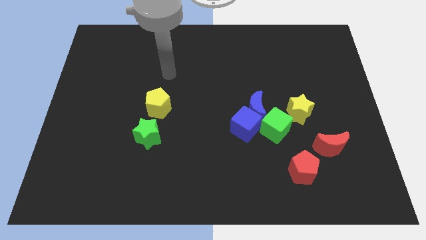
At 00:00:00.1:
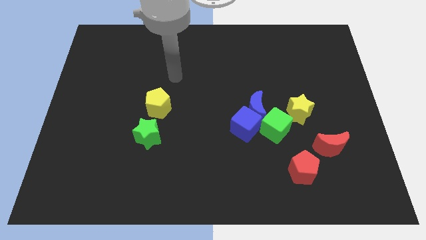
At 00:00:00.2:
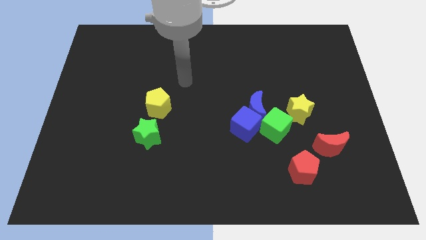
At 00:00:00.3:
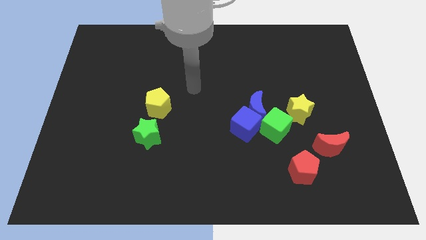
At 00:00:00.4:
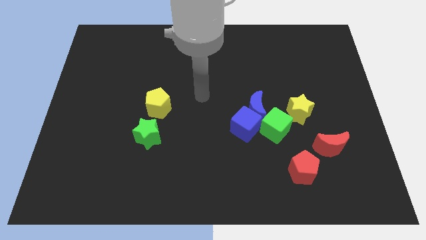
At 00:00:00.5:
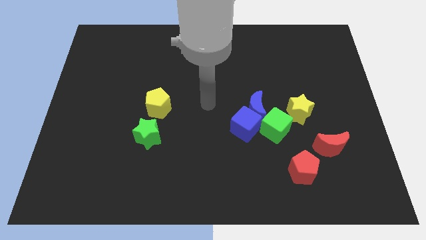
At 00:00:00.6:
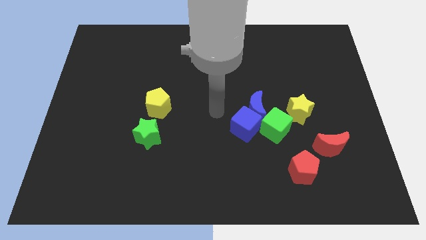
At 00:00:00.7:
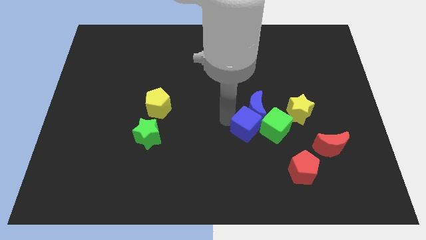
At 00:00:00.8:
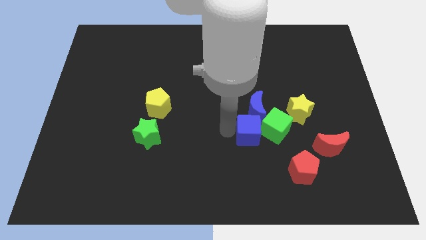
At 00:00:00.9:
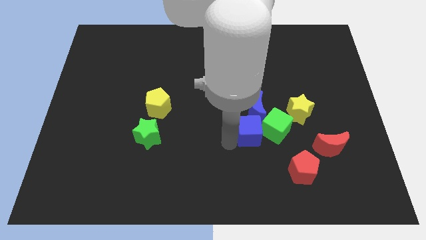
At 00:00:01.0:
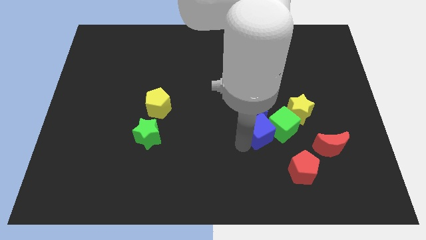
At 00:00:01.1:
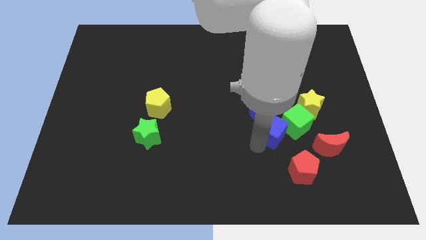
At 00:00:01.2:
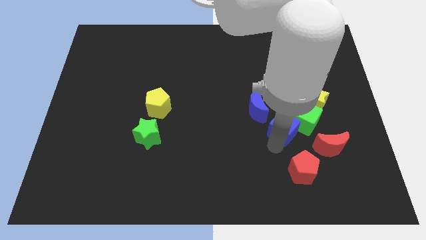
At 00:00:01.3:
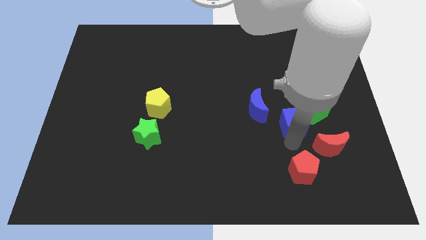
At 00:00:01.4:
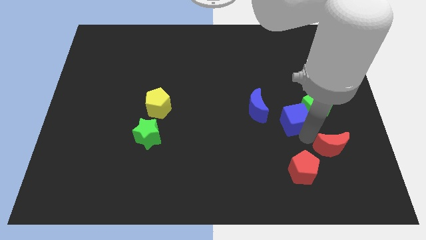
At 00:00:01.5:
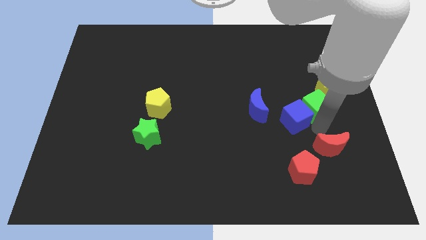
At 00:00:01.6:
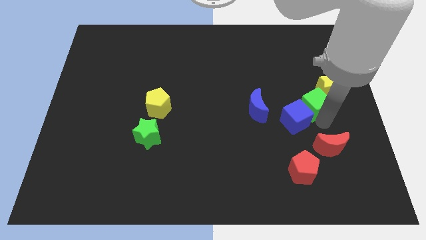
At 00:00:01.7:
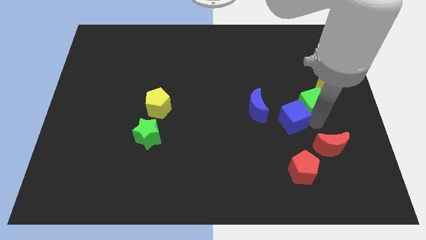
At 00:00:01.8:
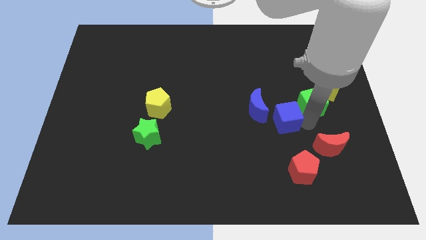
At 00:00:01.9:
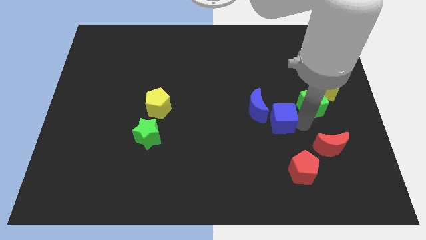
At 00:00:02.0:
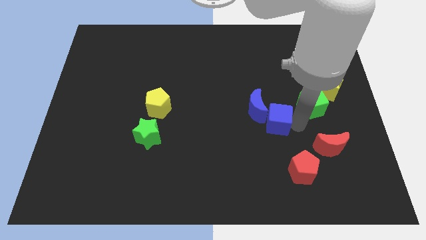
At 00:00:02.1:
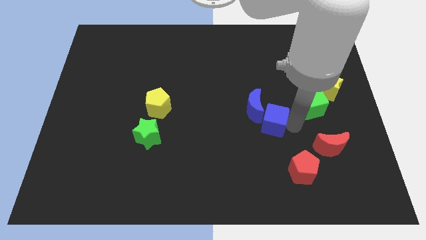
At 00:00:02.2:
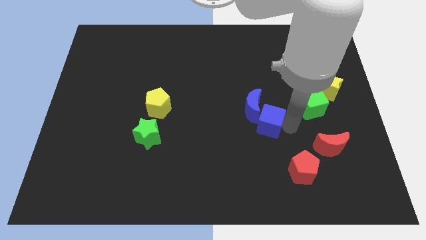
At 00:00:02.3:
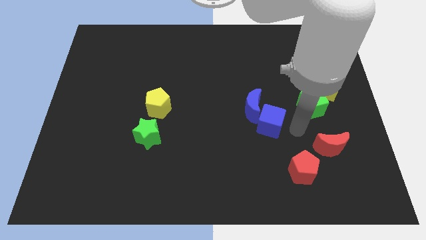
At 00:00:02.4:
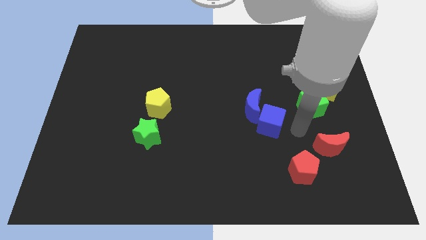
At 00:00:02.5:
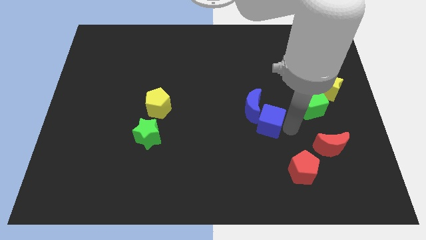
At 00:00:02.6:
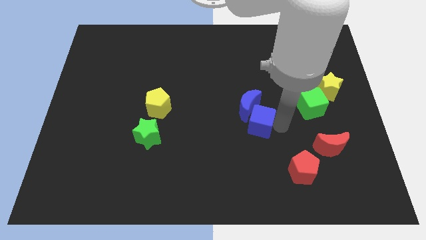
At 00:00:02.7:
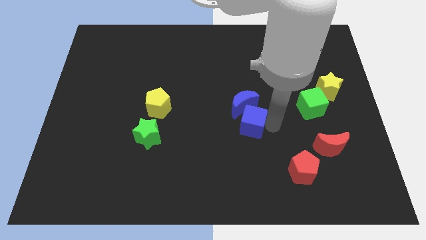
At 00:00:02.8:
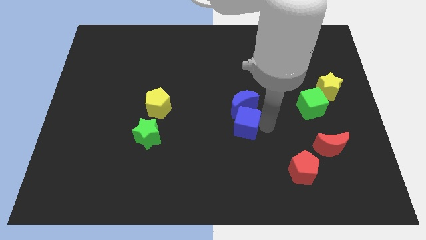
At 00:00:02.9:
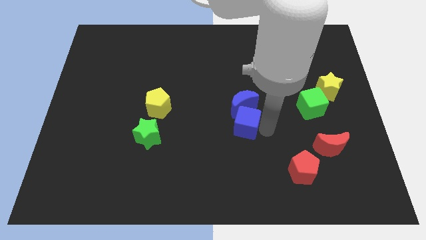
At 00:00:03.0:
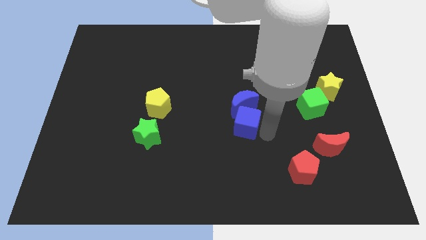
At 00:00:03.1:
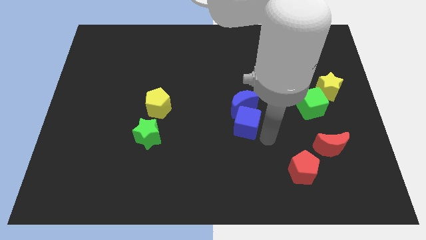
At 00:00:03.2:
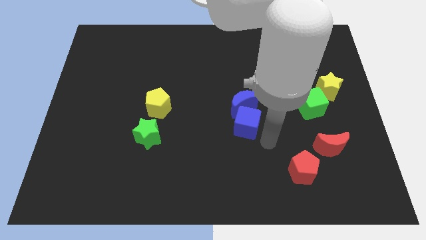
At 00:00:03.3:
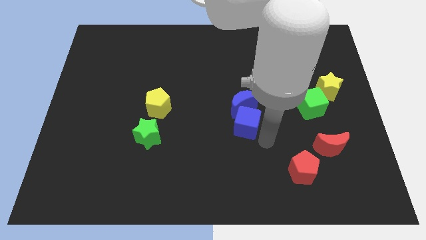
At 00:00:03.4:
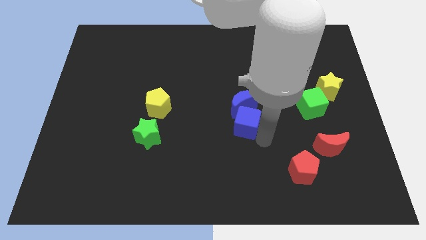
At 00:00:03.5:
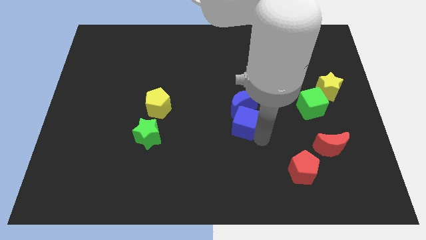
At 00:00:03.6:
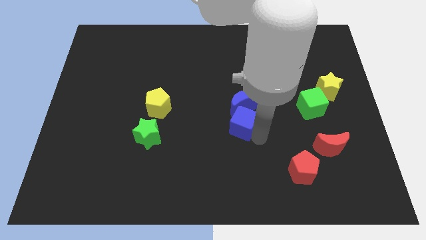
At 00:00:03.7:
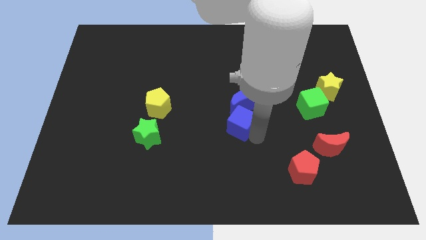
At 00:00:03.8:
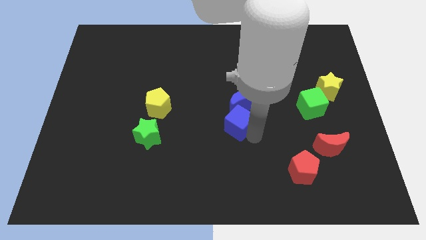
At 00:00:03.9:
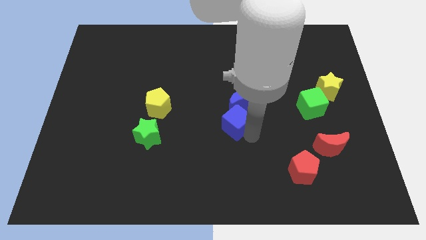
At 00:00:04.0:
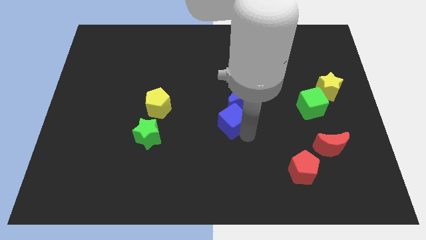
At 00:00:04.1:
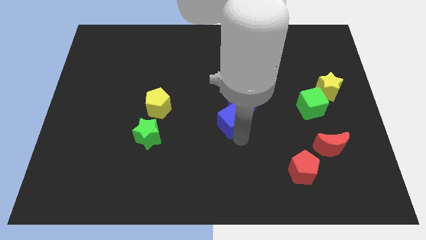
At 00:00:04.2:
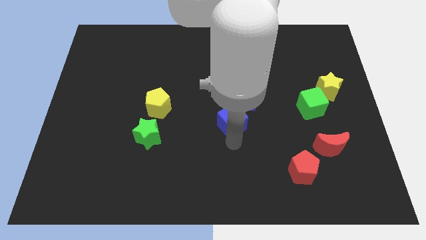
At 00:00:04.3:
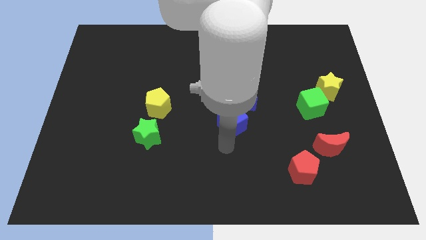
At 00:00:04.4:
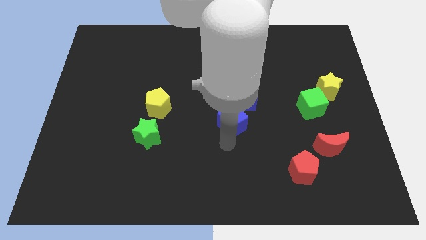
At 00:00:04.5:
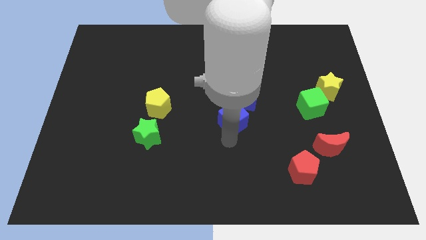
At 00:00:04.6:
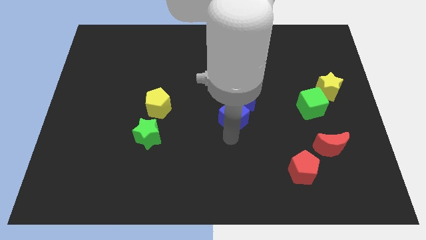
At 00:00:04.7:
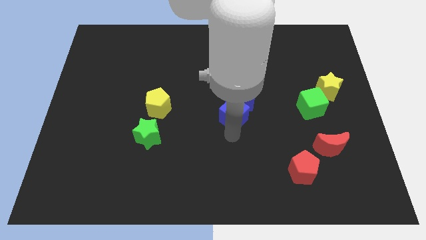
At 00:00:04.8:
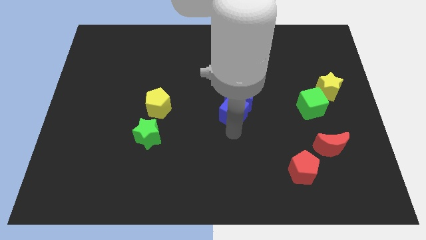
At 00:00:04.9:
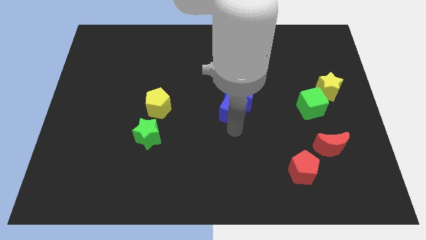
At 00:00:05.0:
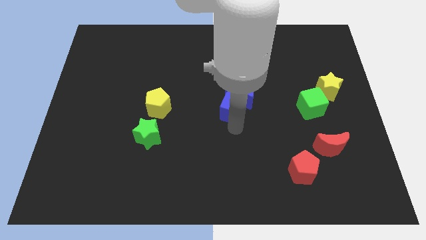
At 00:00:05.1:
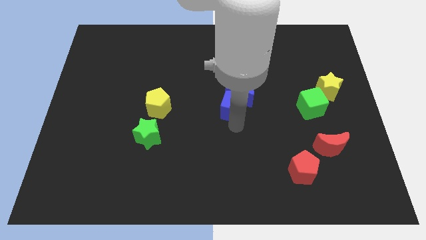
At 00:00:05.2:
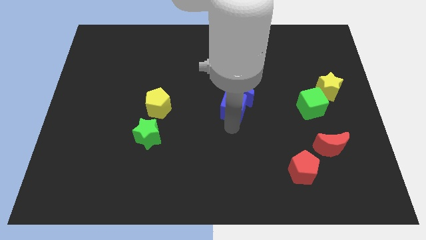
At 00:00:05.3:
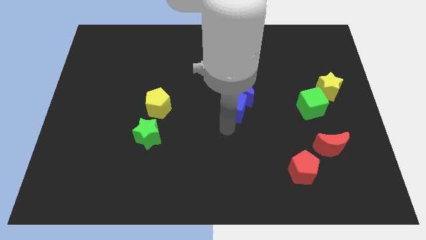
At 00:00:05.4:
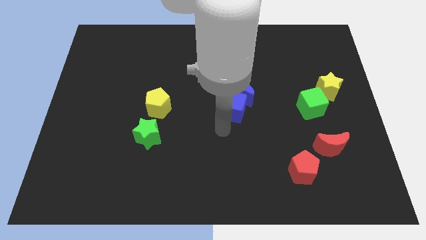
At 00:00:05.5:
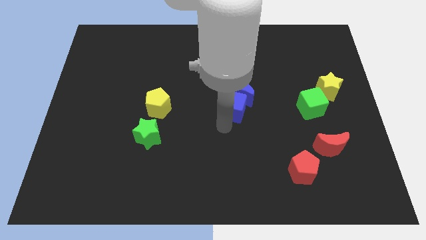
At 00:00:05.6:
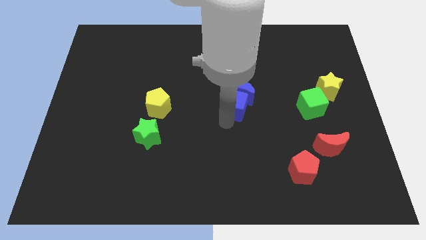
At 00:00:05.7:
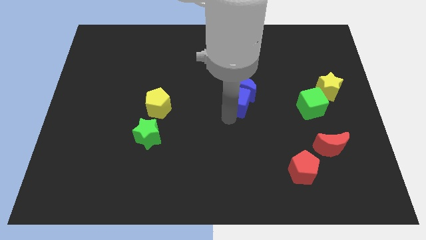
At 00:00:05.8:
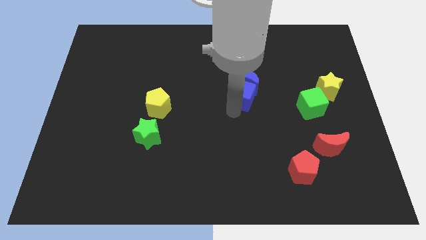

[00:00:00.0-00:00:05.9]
slightly move the blue cube upwards

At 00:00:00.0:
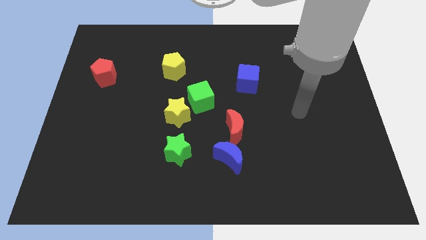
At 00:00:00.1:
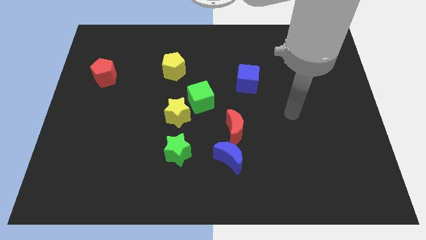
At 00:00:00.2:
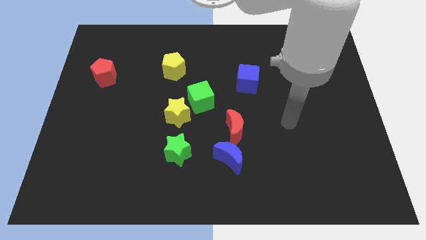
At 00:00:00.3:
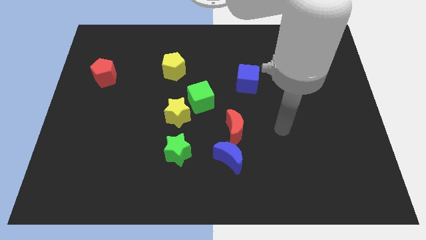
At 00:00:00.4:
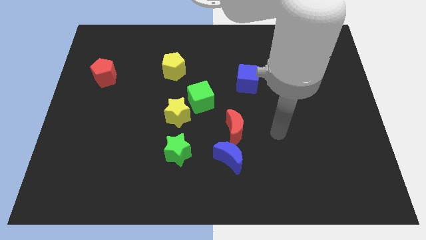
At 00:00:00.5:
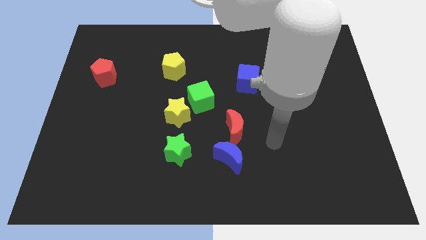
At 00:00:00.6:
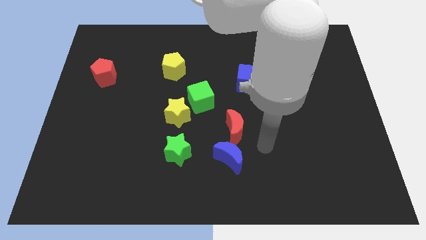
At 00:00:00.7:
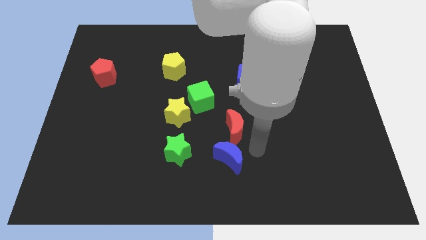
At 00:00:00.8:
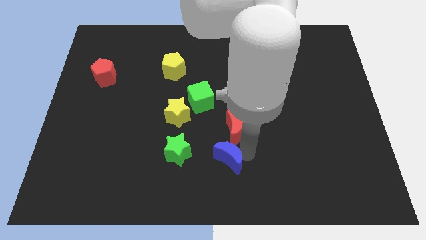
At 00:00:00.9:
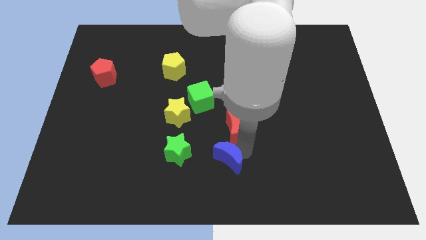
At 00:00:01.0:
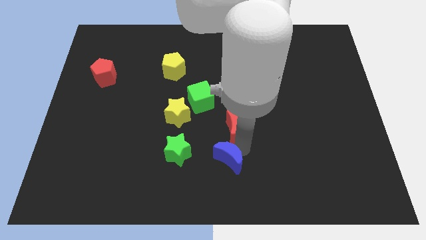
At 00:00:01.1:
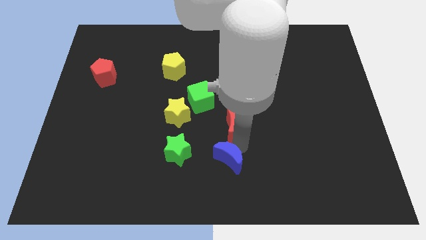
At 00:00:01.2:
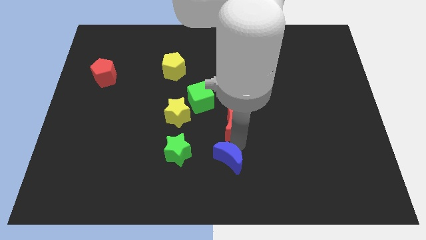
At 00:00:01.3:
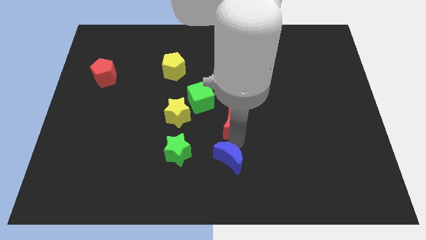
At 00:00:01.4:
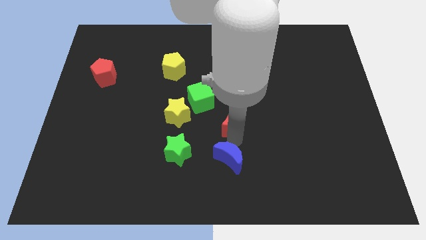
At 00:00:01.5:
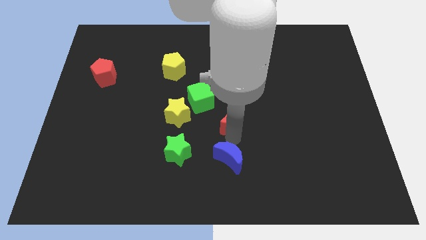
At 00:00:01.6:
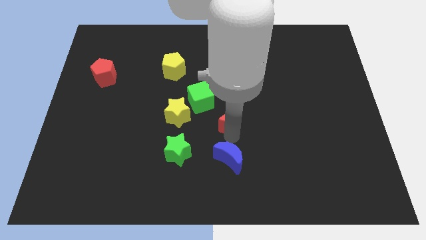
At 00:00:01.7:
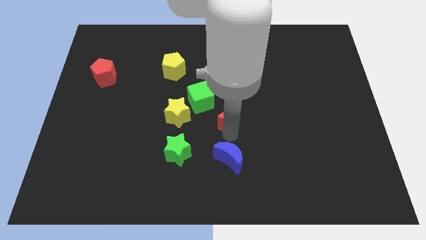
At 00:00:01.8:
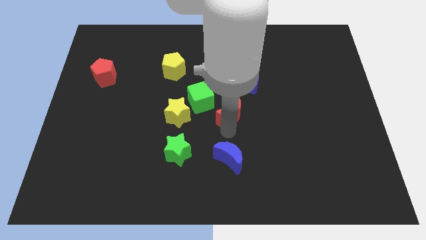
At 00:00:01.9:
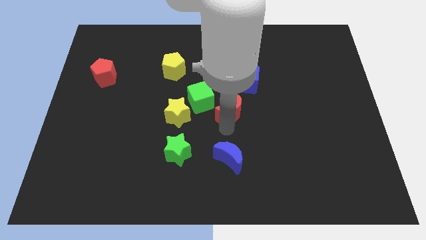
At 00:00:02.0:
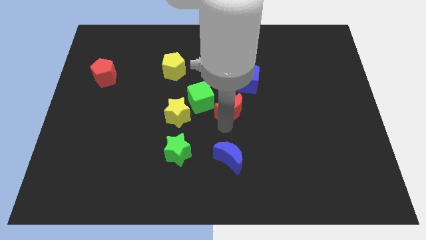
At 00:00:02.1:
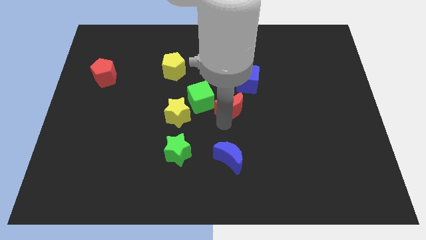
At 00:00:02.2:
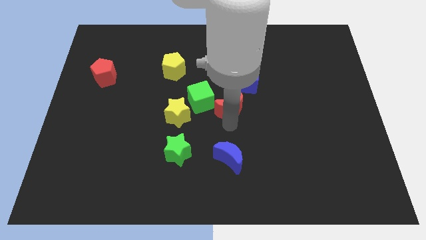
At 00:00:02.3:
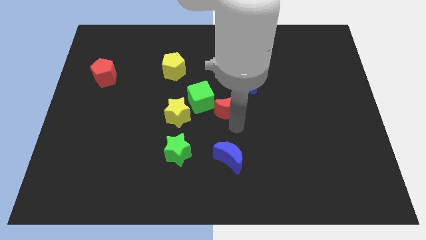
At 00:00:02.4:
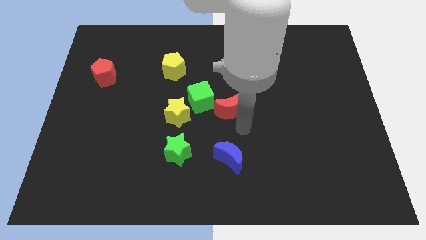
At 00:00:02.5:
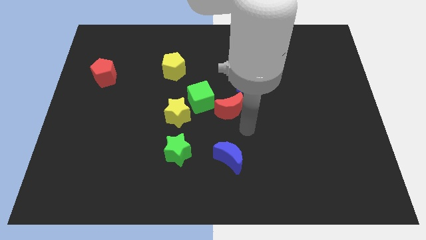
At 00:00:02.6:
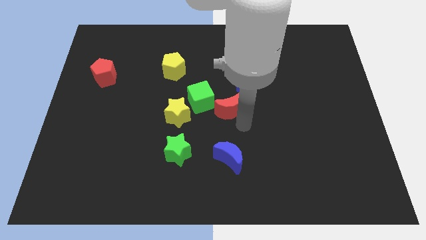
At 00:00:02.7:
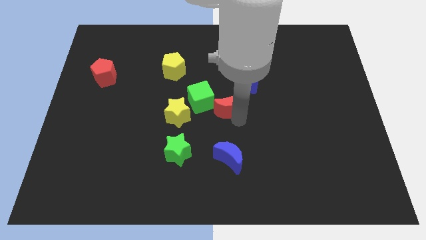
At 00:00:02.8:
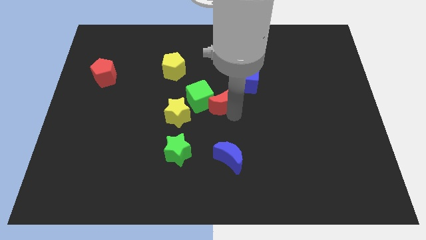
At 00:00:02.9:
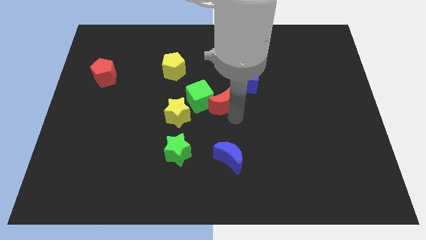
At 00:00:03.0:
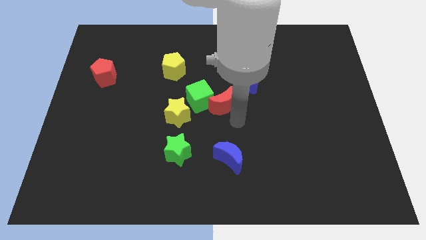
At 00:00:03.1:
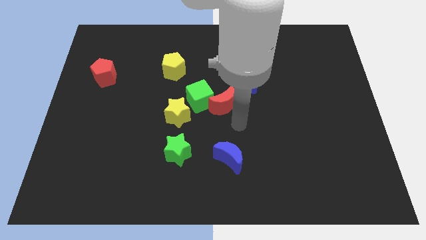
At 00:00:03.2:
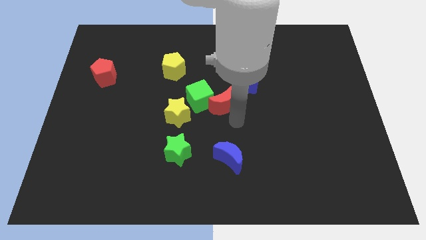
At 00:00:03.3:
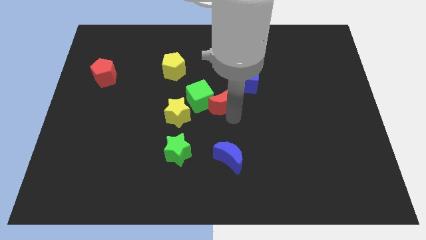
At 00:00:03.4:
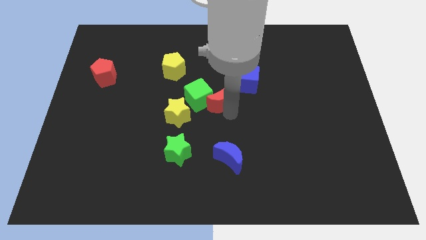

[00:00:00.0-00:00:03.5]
slightly slide the red moon up and left
